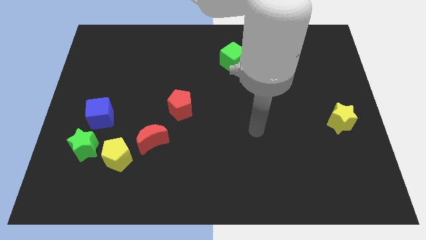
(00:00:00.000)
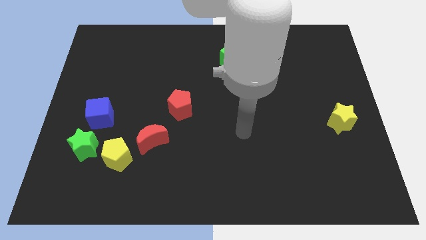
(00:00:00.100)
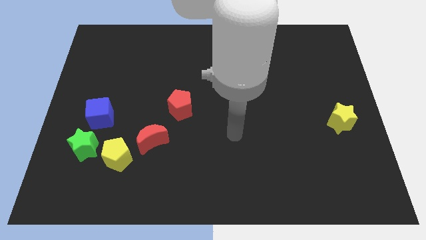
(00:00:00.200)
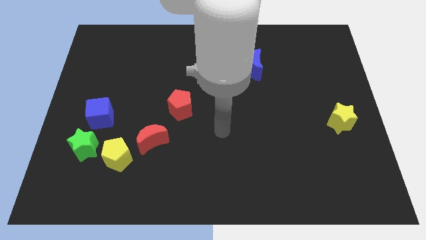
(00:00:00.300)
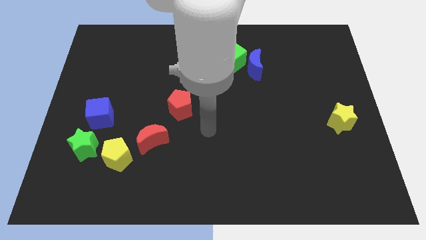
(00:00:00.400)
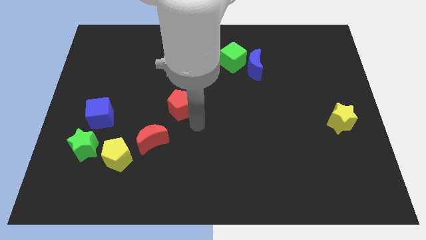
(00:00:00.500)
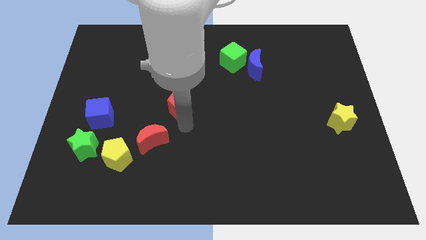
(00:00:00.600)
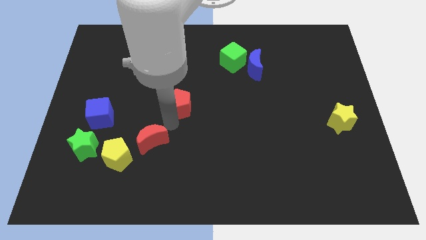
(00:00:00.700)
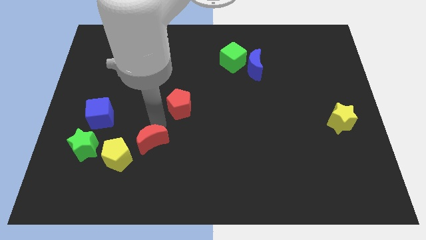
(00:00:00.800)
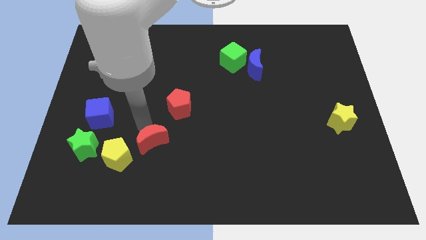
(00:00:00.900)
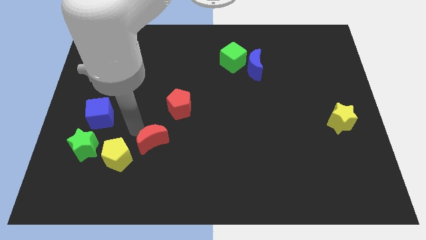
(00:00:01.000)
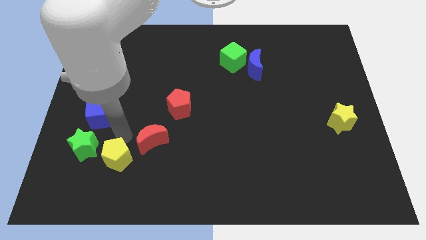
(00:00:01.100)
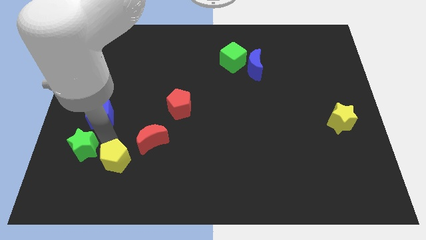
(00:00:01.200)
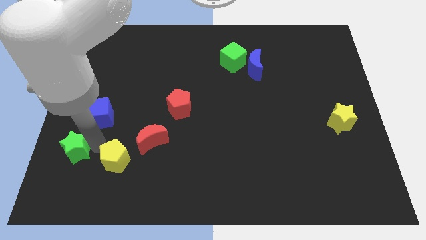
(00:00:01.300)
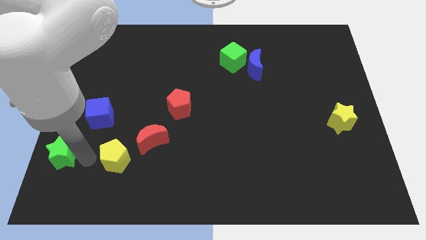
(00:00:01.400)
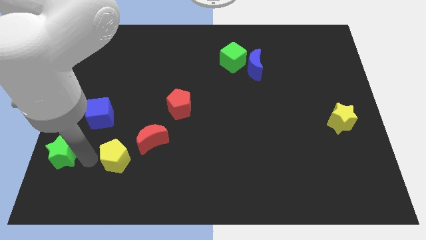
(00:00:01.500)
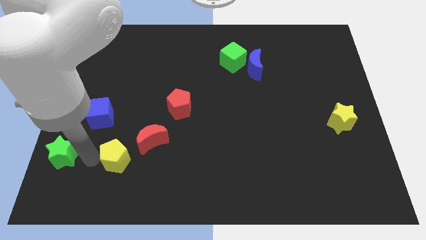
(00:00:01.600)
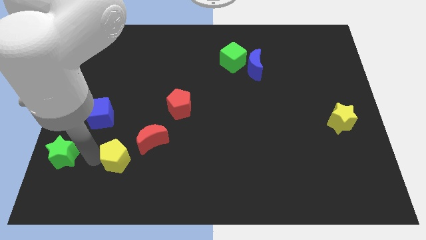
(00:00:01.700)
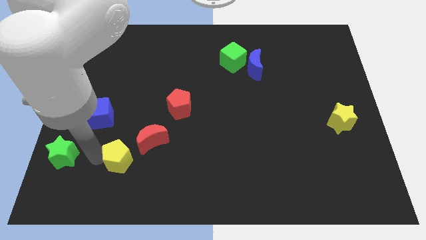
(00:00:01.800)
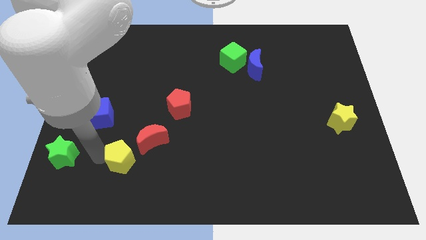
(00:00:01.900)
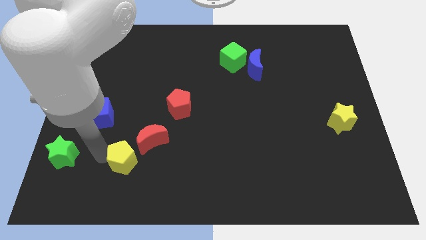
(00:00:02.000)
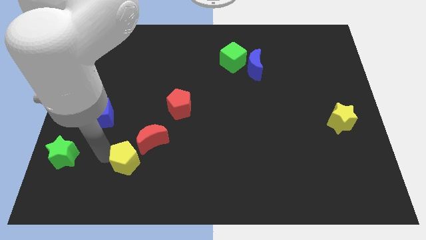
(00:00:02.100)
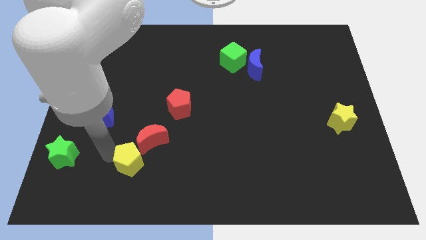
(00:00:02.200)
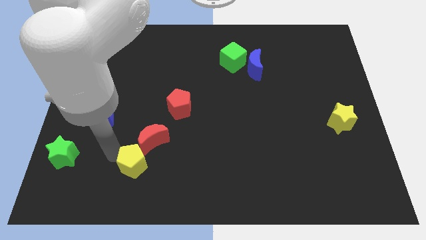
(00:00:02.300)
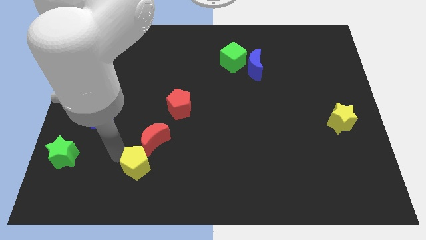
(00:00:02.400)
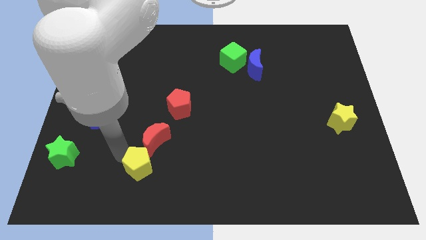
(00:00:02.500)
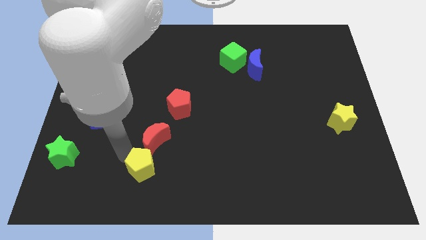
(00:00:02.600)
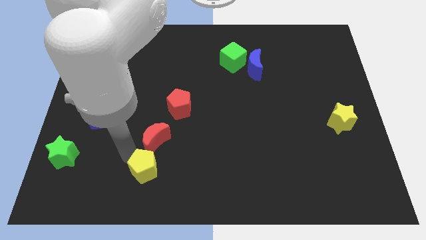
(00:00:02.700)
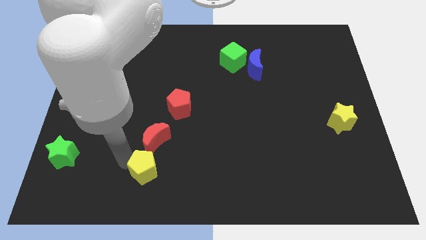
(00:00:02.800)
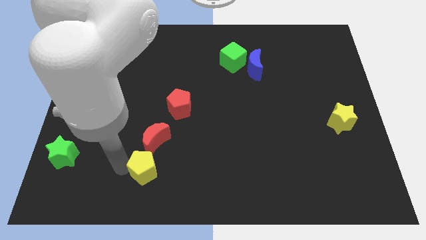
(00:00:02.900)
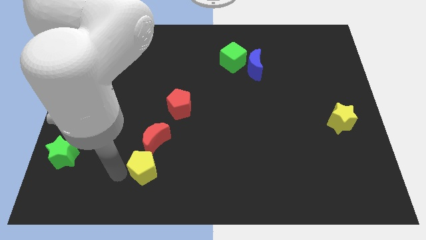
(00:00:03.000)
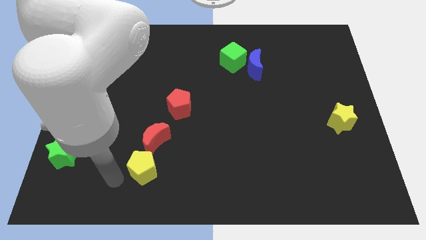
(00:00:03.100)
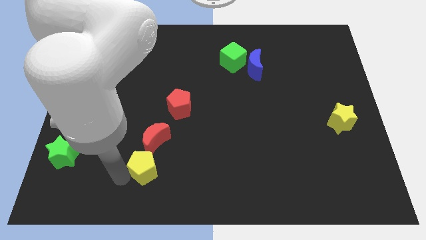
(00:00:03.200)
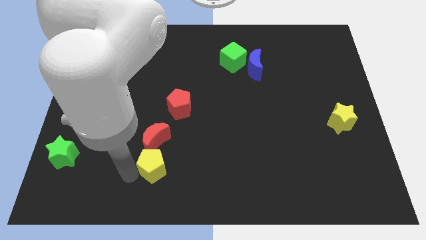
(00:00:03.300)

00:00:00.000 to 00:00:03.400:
move the yellow pentagon a little bit to the right

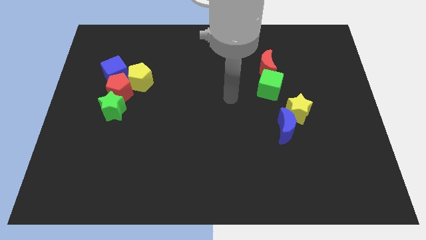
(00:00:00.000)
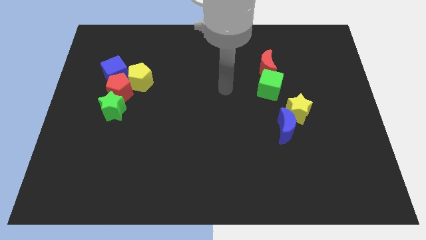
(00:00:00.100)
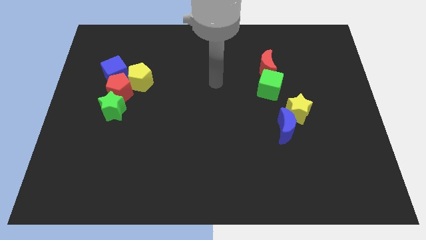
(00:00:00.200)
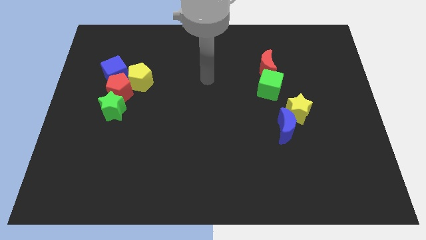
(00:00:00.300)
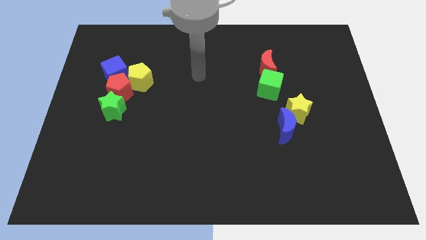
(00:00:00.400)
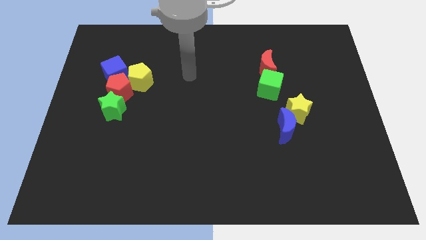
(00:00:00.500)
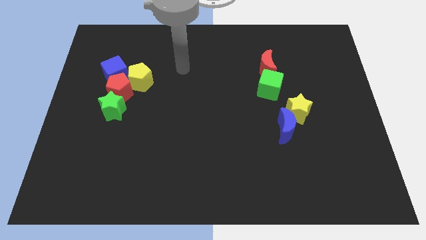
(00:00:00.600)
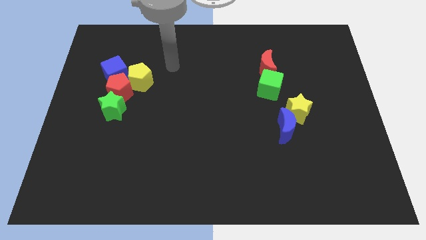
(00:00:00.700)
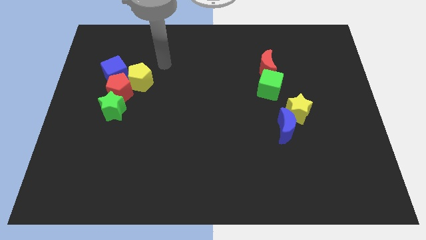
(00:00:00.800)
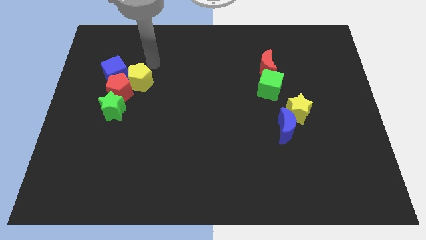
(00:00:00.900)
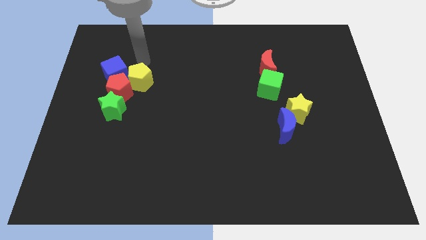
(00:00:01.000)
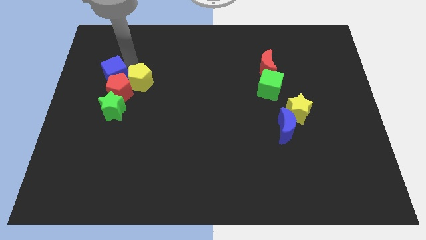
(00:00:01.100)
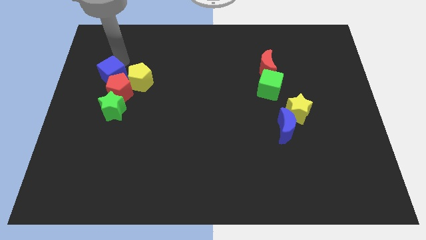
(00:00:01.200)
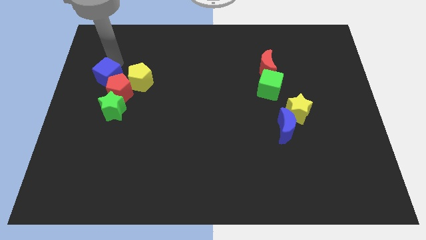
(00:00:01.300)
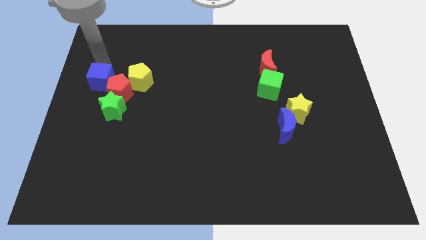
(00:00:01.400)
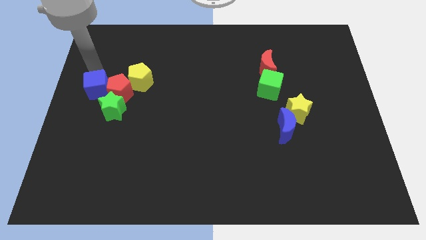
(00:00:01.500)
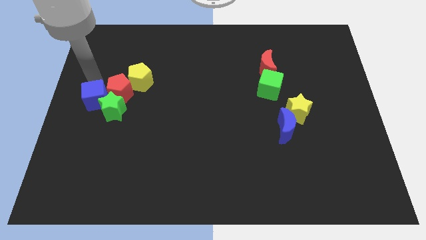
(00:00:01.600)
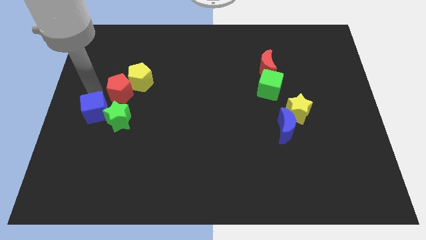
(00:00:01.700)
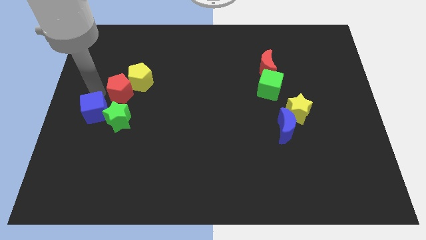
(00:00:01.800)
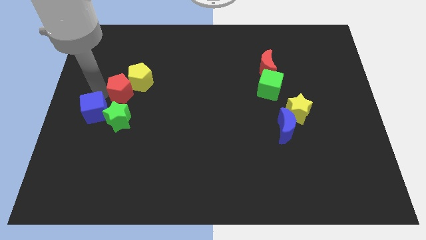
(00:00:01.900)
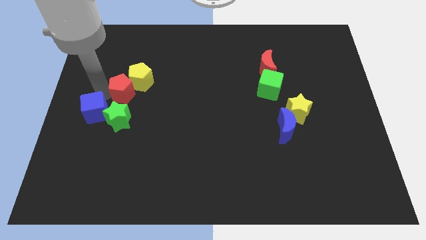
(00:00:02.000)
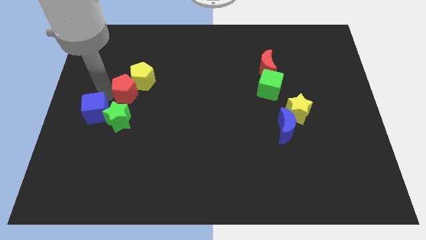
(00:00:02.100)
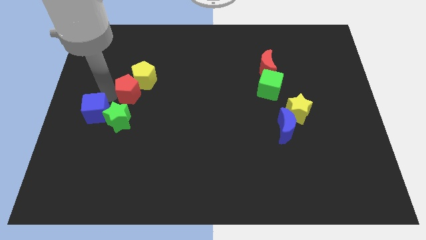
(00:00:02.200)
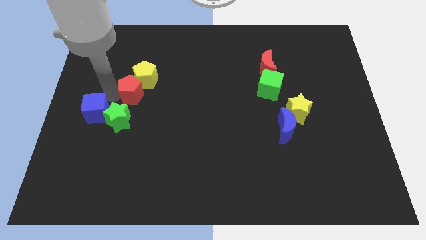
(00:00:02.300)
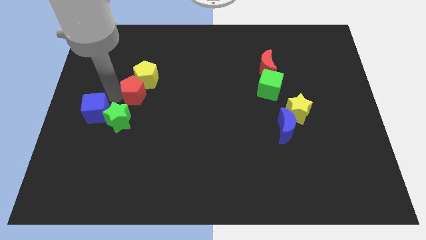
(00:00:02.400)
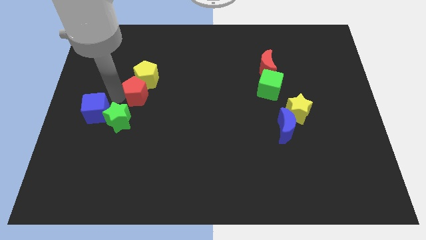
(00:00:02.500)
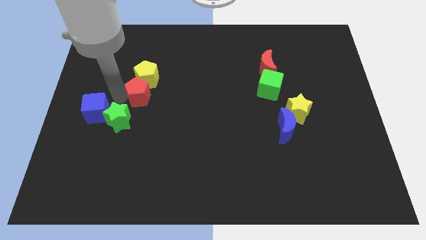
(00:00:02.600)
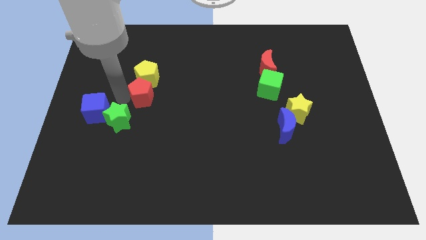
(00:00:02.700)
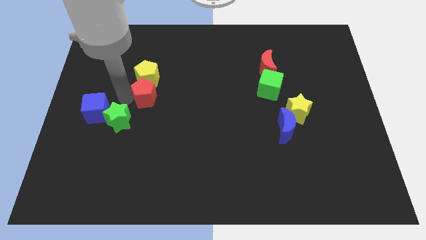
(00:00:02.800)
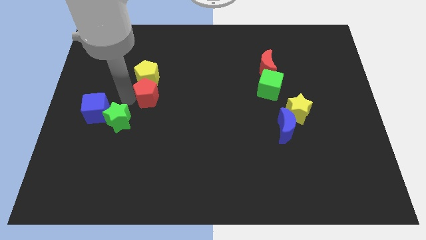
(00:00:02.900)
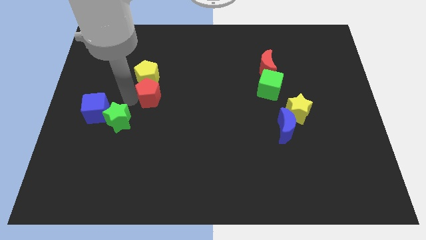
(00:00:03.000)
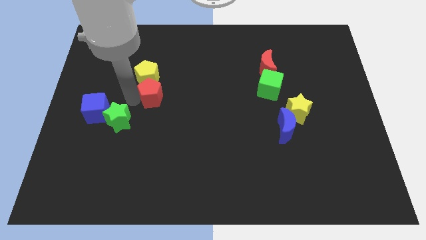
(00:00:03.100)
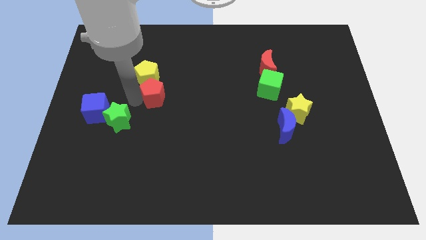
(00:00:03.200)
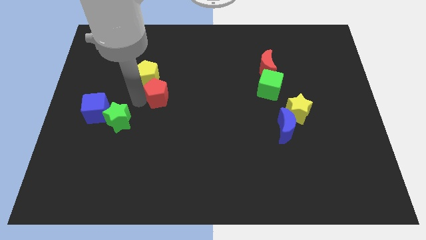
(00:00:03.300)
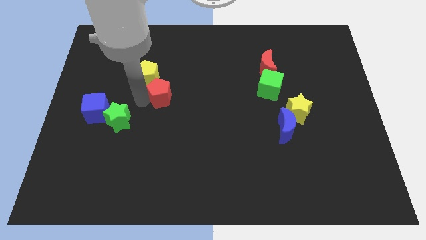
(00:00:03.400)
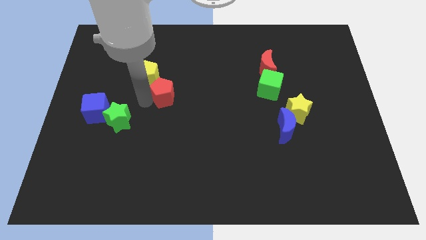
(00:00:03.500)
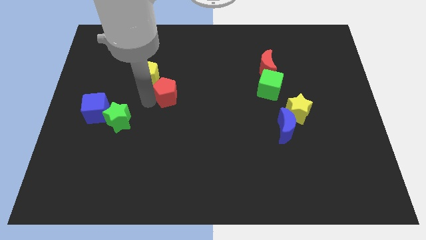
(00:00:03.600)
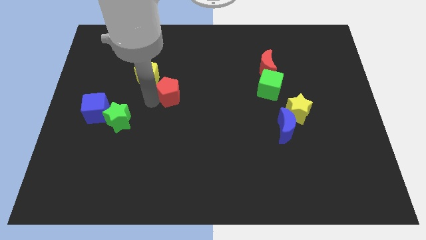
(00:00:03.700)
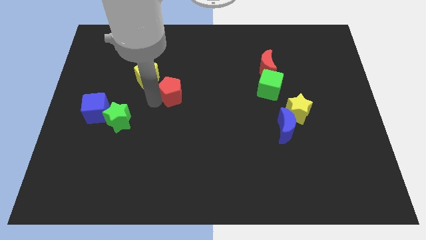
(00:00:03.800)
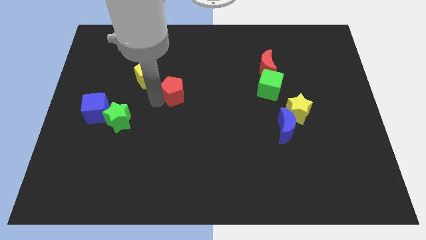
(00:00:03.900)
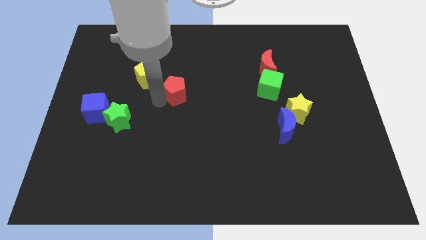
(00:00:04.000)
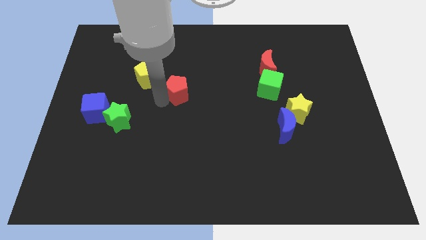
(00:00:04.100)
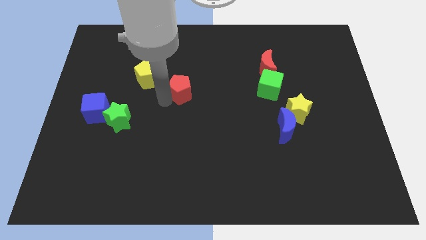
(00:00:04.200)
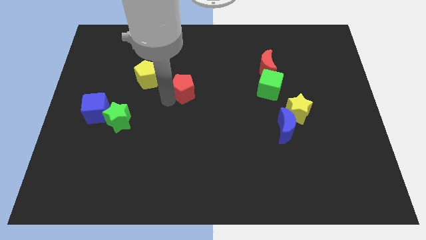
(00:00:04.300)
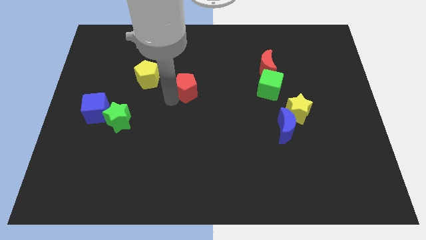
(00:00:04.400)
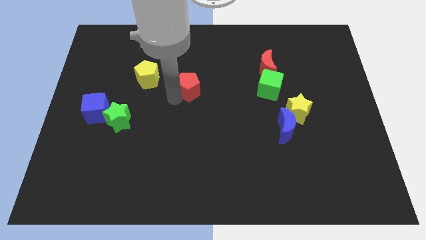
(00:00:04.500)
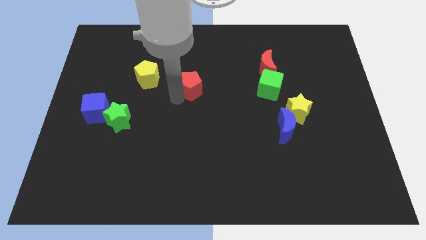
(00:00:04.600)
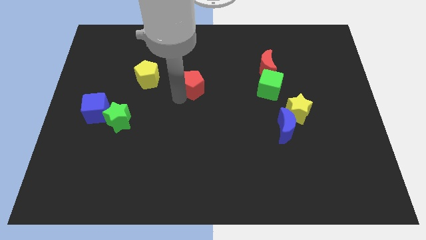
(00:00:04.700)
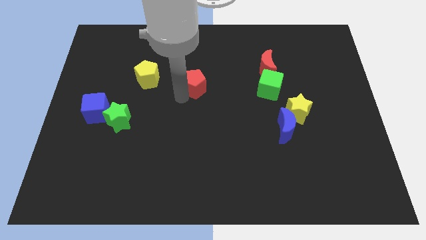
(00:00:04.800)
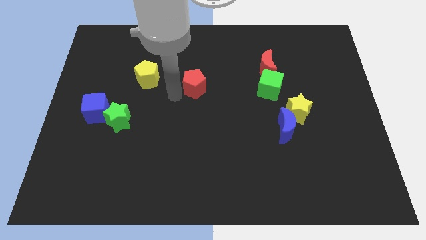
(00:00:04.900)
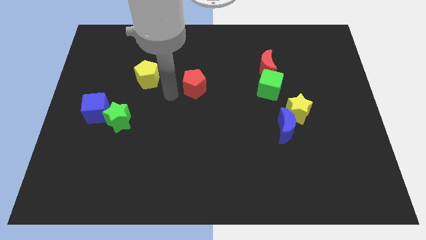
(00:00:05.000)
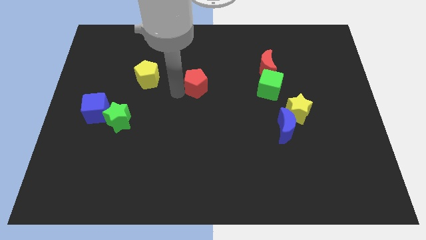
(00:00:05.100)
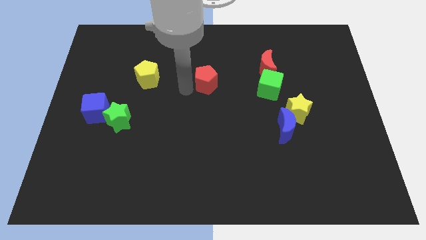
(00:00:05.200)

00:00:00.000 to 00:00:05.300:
move the red pentagon right
